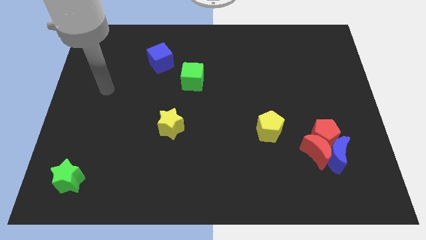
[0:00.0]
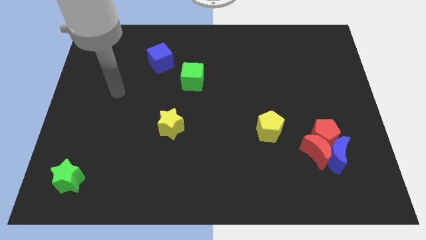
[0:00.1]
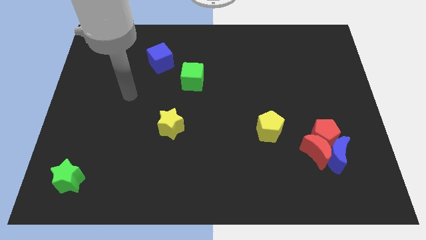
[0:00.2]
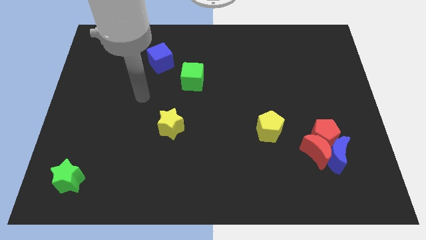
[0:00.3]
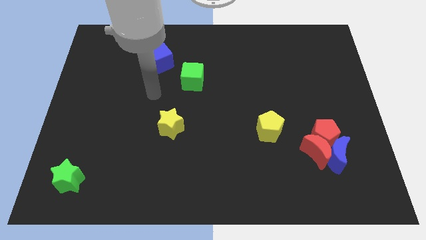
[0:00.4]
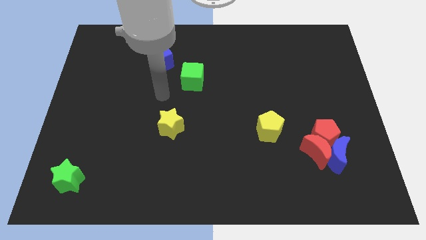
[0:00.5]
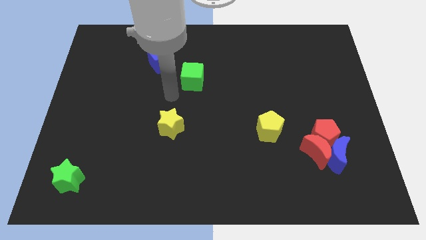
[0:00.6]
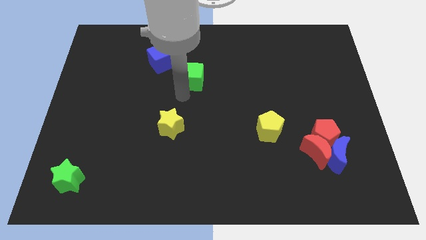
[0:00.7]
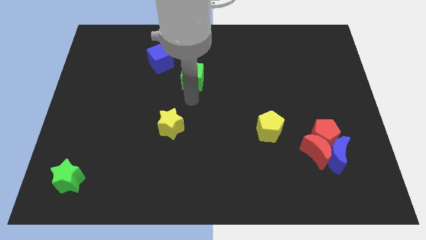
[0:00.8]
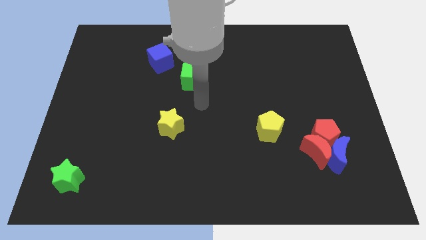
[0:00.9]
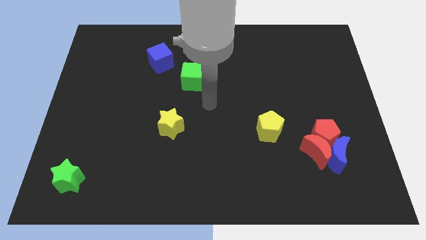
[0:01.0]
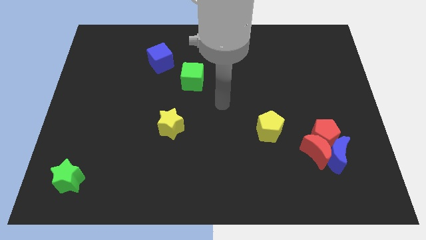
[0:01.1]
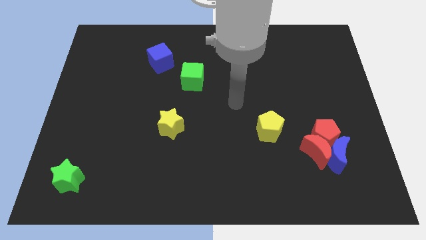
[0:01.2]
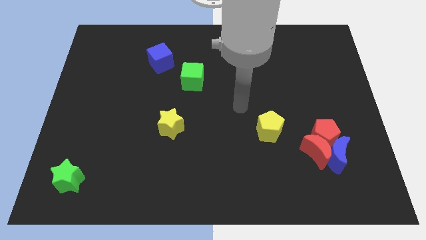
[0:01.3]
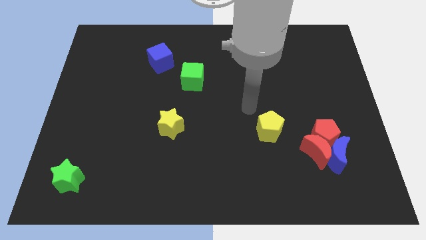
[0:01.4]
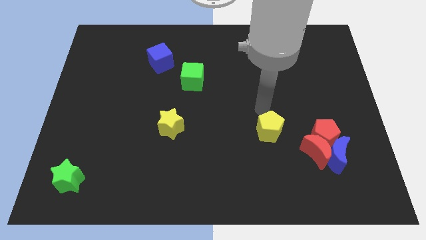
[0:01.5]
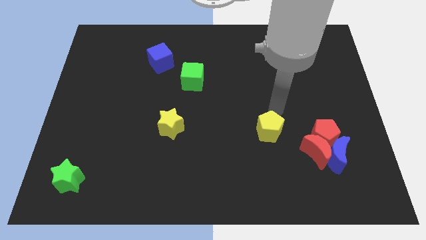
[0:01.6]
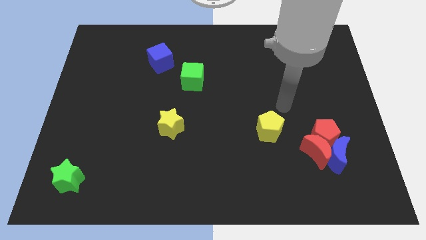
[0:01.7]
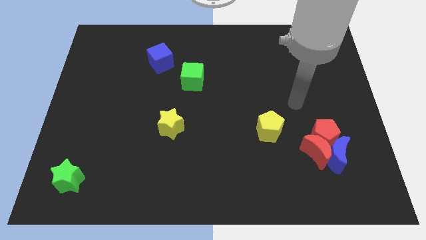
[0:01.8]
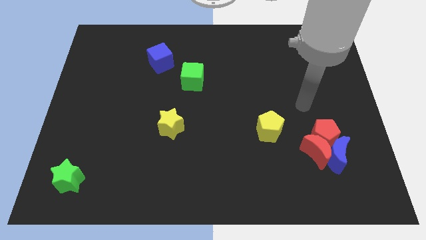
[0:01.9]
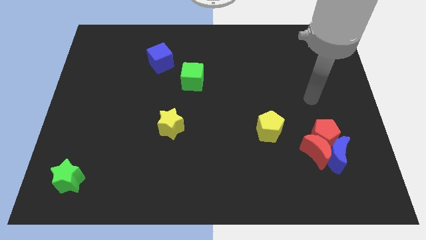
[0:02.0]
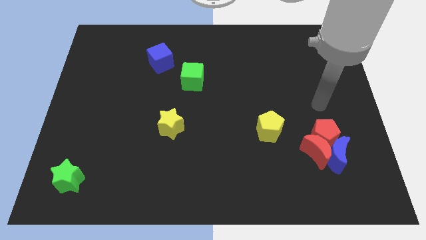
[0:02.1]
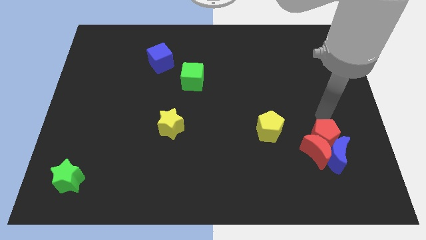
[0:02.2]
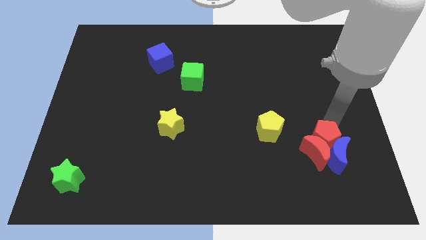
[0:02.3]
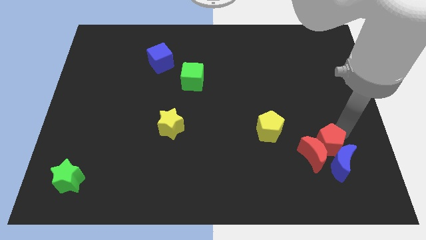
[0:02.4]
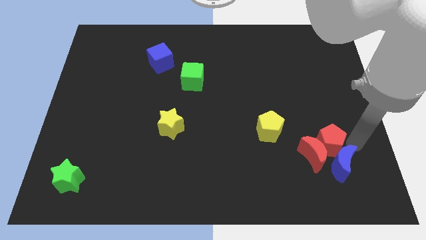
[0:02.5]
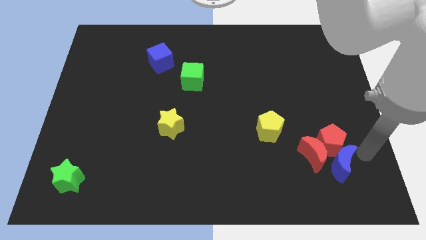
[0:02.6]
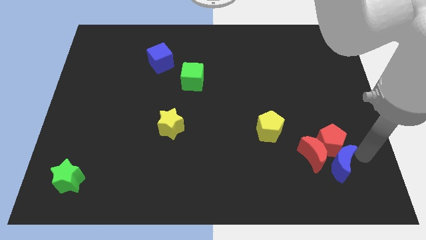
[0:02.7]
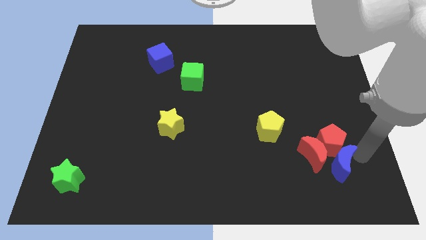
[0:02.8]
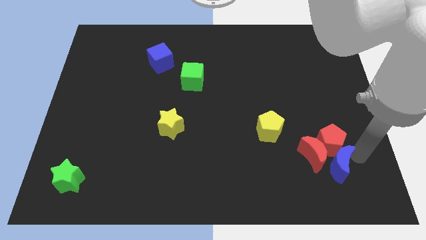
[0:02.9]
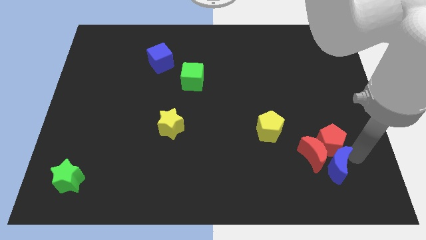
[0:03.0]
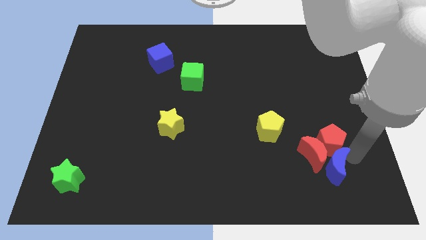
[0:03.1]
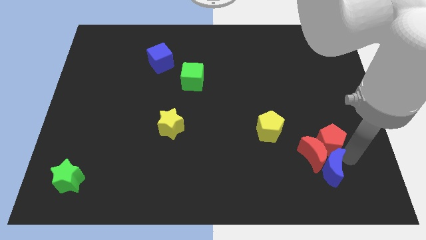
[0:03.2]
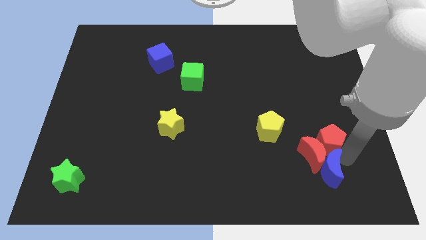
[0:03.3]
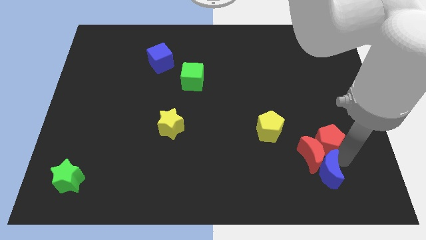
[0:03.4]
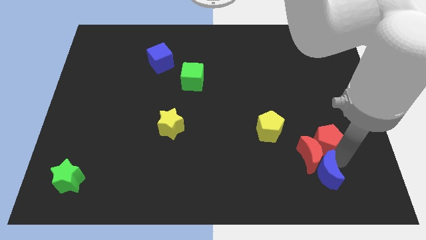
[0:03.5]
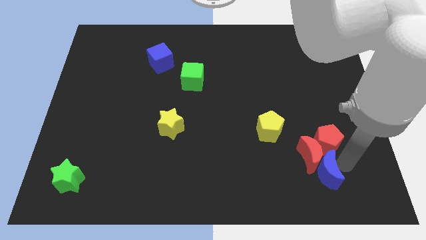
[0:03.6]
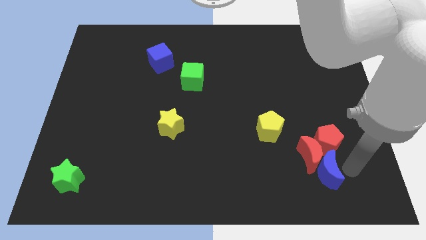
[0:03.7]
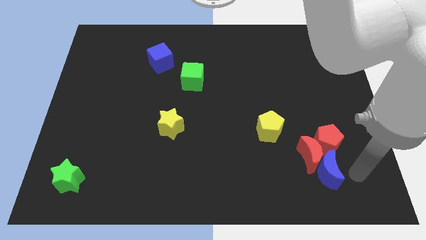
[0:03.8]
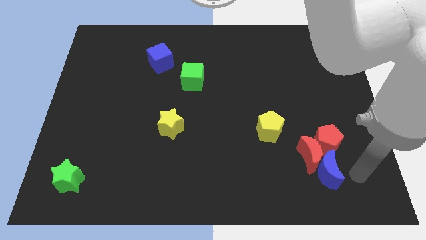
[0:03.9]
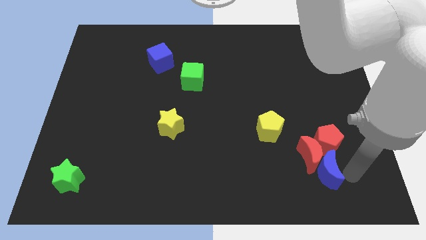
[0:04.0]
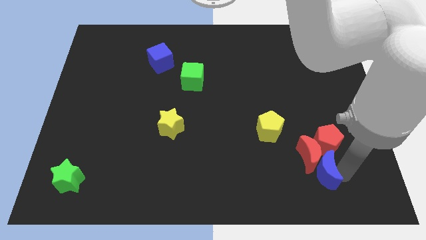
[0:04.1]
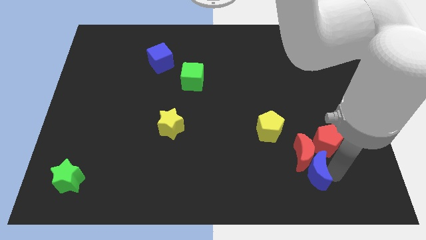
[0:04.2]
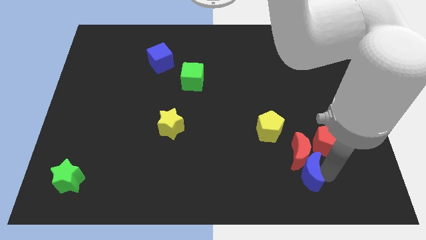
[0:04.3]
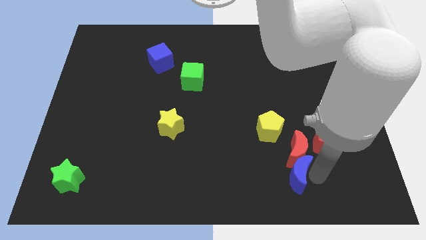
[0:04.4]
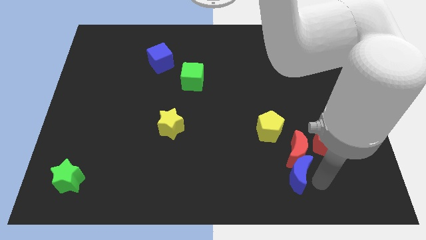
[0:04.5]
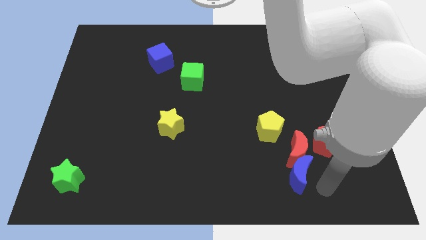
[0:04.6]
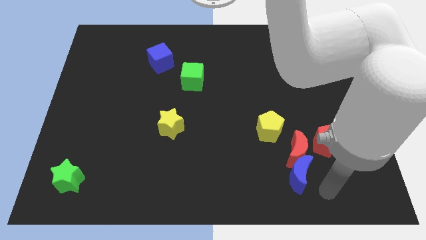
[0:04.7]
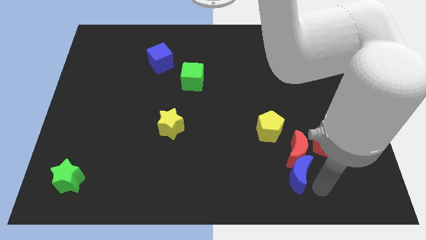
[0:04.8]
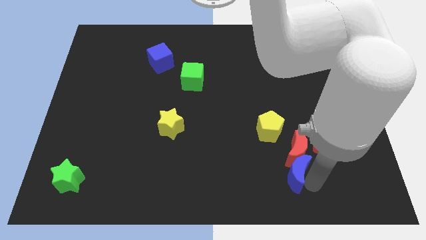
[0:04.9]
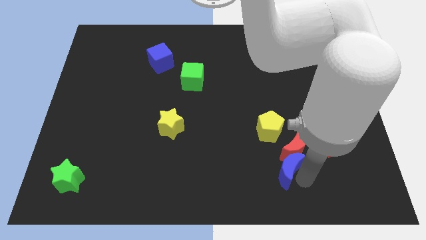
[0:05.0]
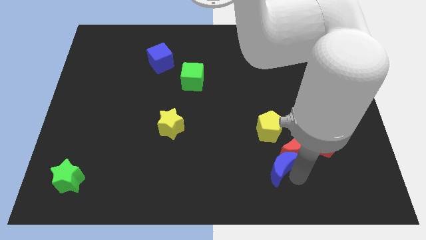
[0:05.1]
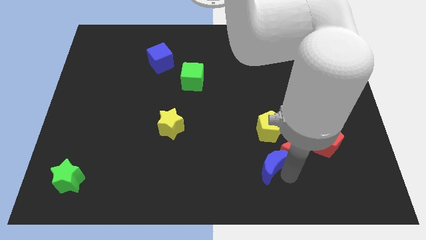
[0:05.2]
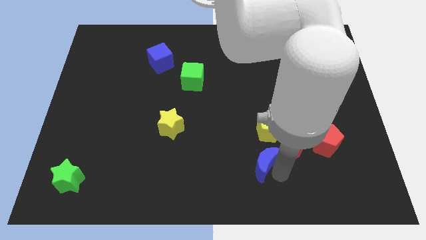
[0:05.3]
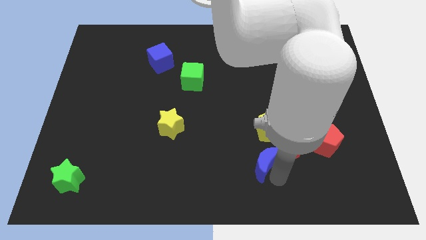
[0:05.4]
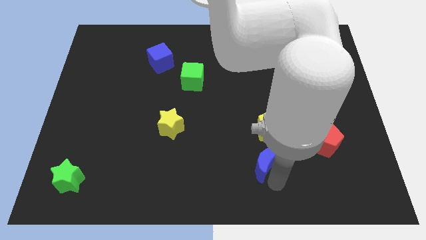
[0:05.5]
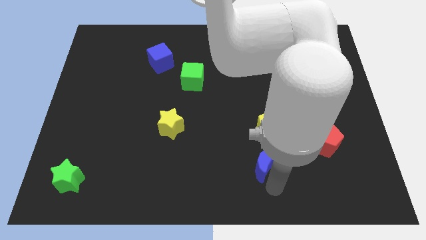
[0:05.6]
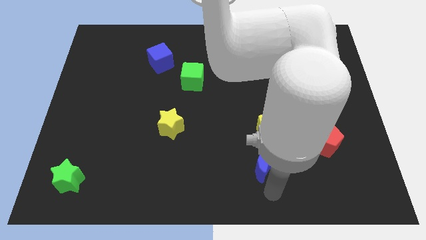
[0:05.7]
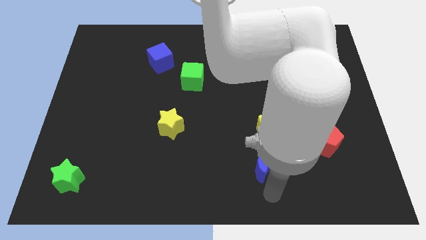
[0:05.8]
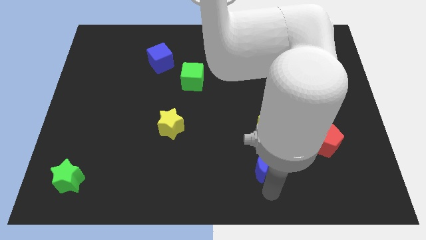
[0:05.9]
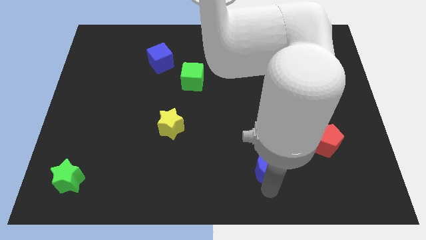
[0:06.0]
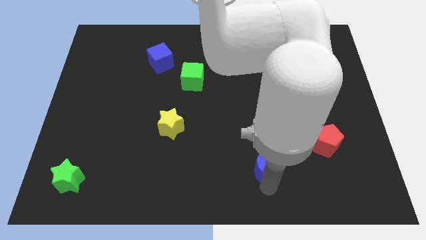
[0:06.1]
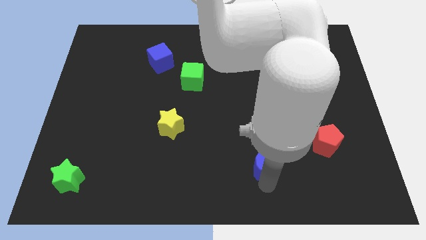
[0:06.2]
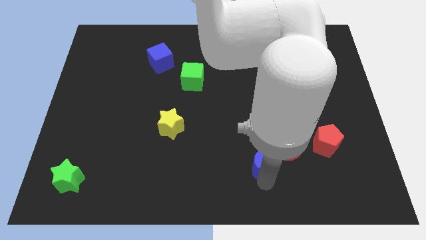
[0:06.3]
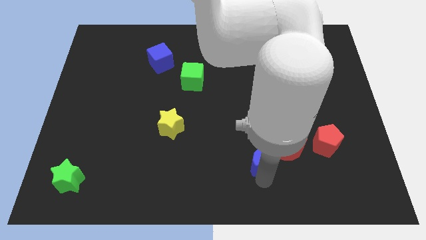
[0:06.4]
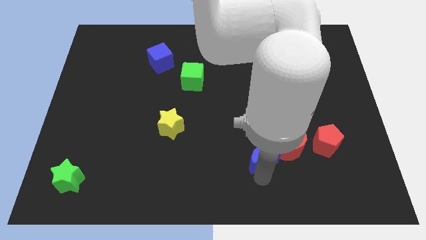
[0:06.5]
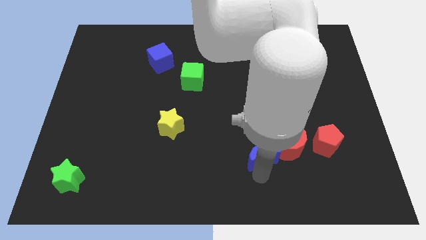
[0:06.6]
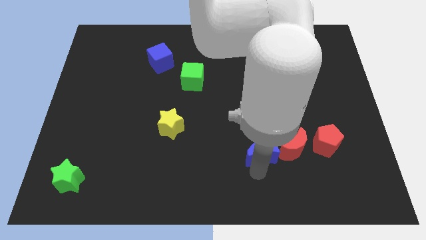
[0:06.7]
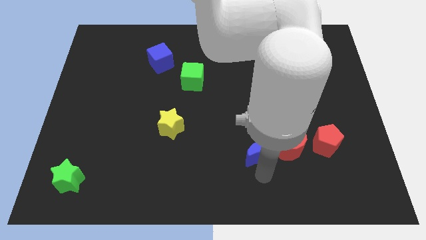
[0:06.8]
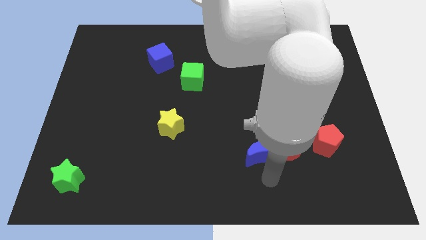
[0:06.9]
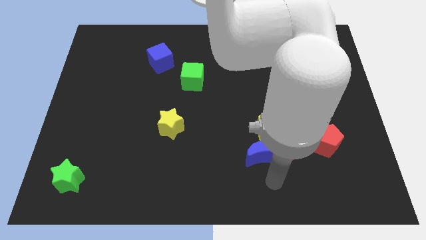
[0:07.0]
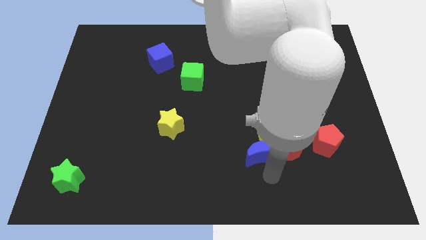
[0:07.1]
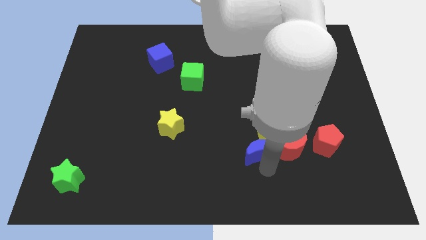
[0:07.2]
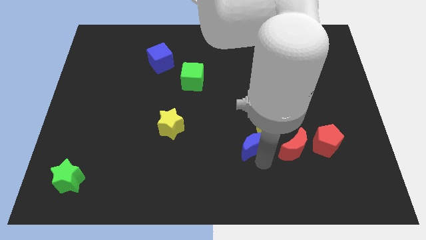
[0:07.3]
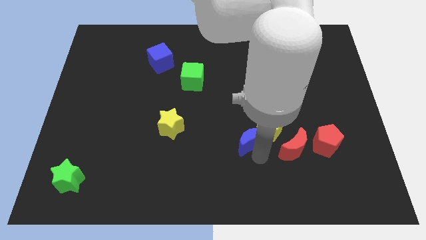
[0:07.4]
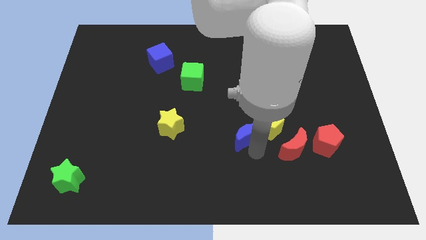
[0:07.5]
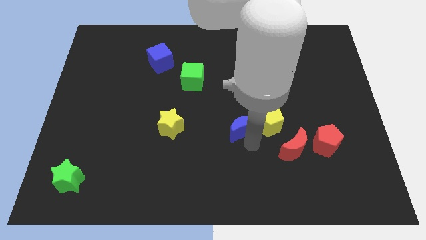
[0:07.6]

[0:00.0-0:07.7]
push the blue moon to the middle of the board
